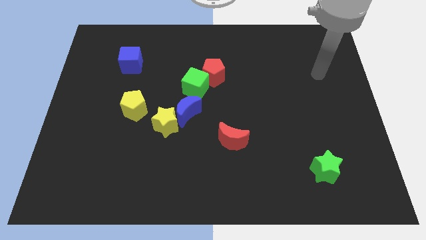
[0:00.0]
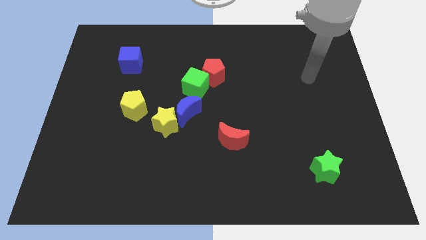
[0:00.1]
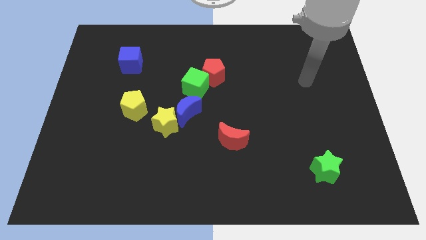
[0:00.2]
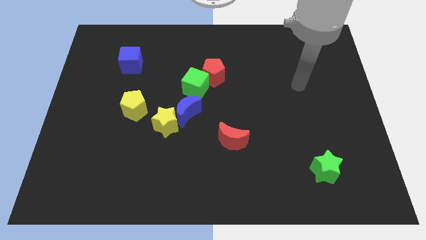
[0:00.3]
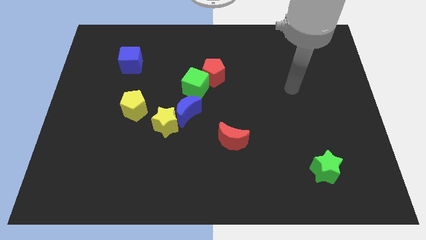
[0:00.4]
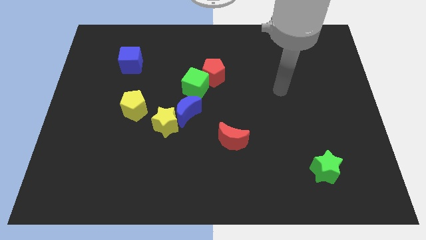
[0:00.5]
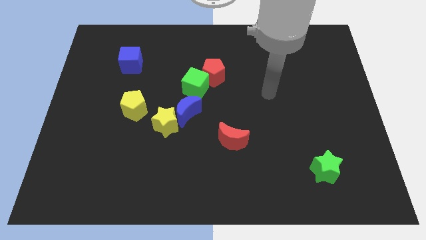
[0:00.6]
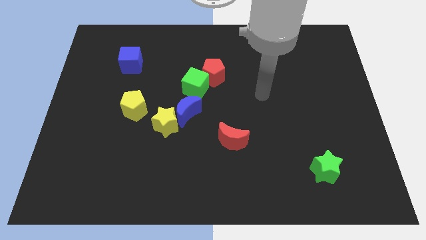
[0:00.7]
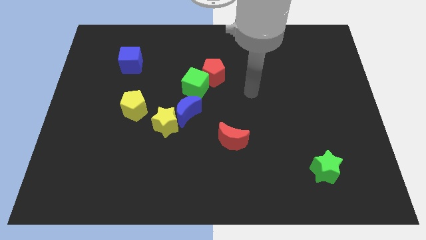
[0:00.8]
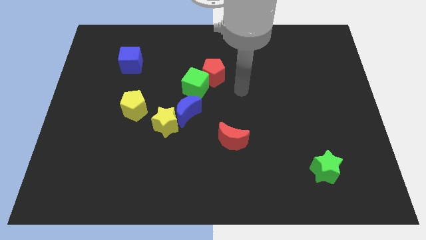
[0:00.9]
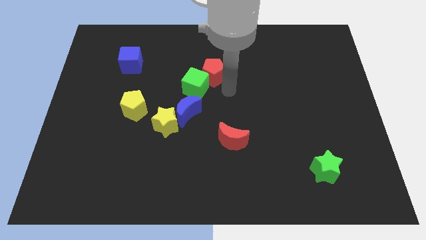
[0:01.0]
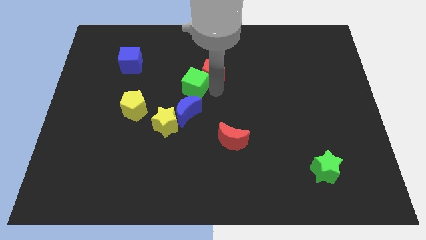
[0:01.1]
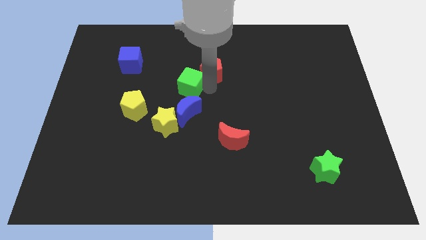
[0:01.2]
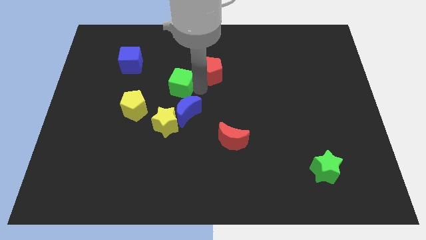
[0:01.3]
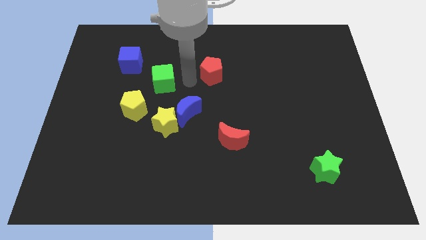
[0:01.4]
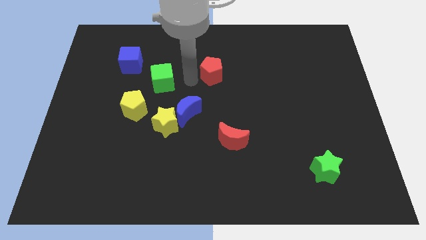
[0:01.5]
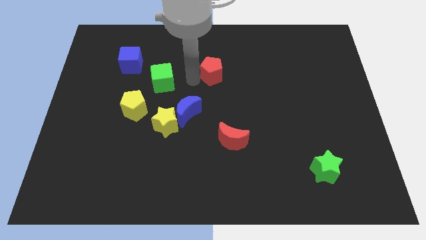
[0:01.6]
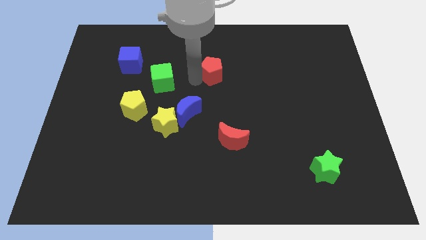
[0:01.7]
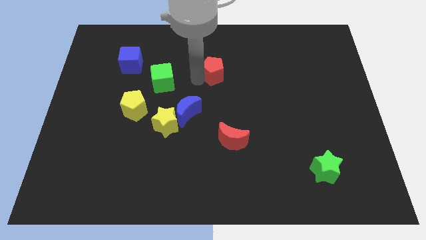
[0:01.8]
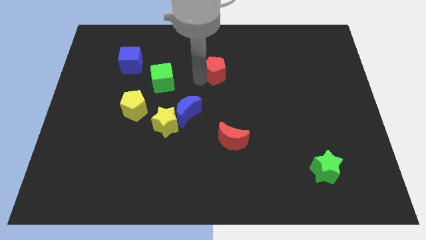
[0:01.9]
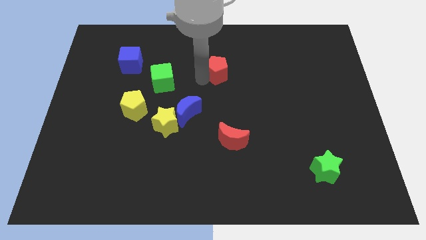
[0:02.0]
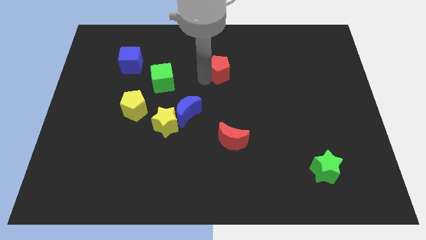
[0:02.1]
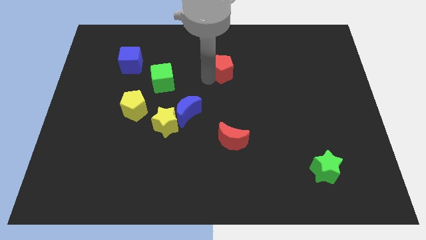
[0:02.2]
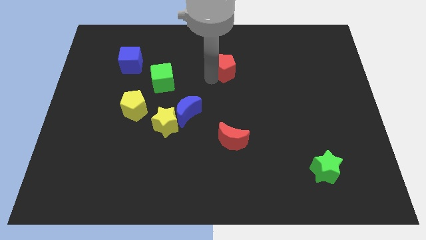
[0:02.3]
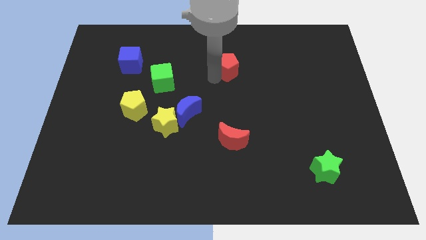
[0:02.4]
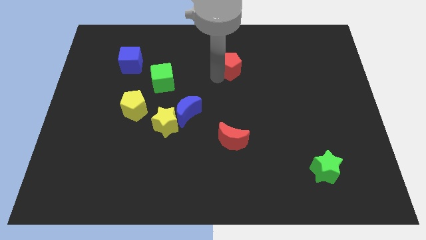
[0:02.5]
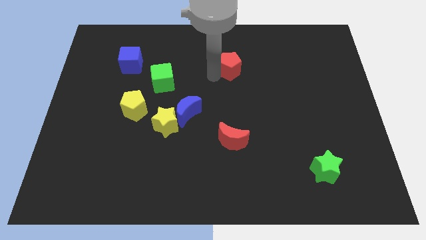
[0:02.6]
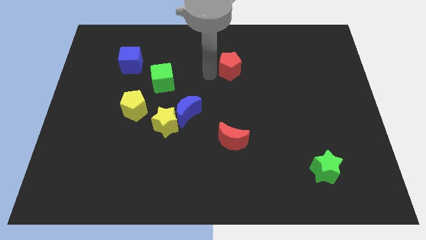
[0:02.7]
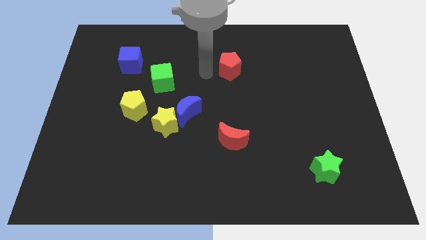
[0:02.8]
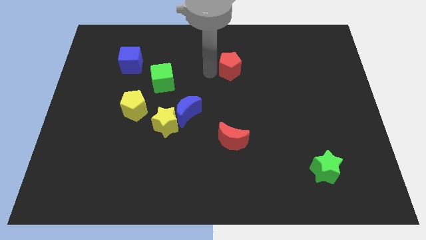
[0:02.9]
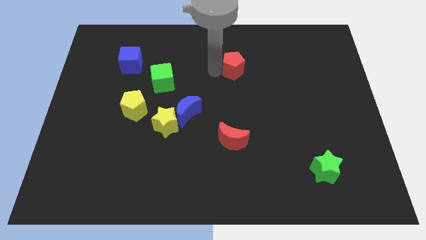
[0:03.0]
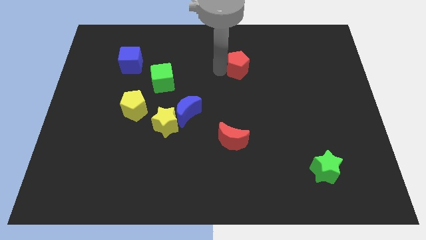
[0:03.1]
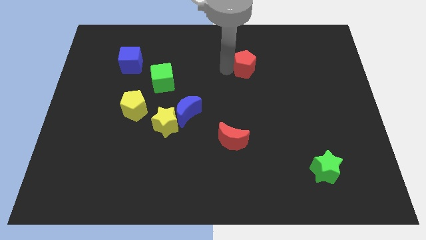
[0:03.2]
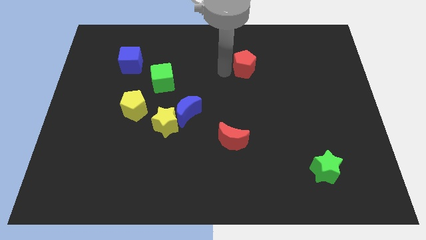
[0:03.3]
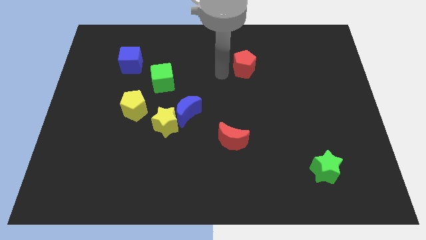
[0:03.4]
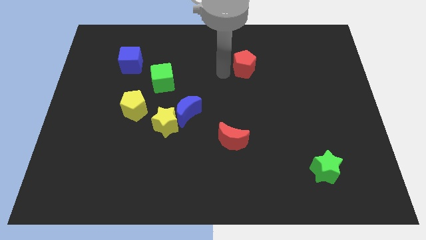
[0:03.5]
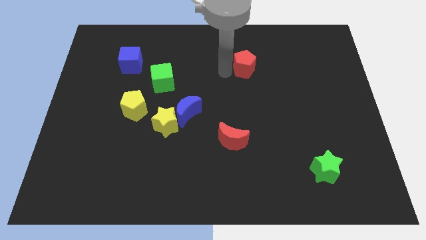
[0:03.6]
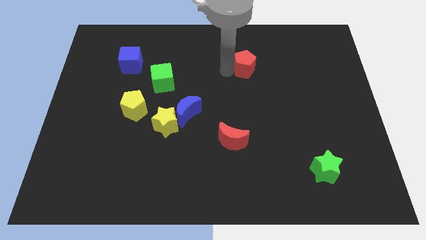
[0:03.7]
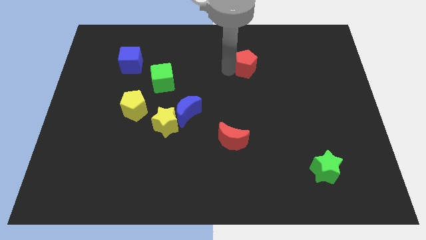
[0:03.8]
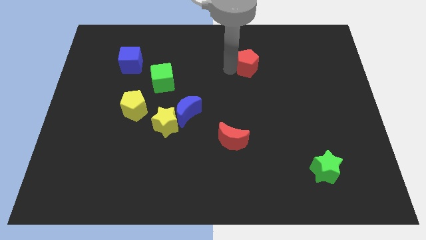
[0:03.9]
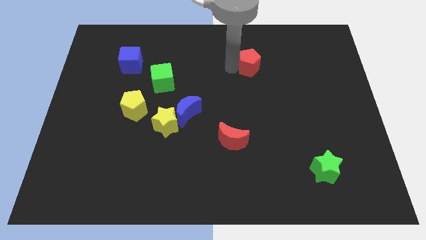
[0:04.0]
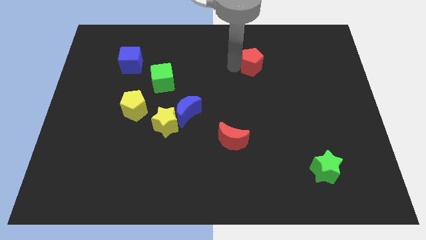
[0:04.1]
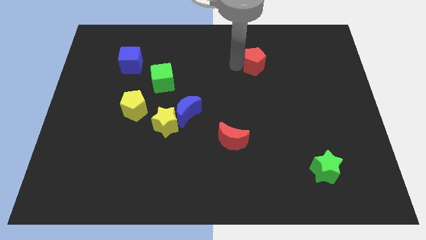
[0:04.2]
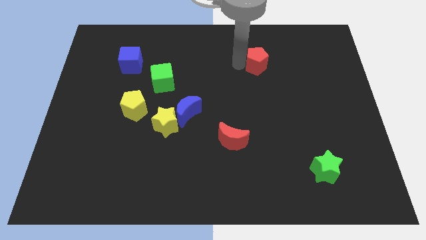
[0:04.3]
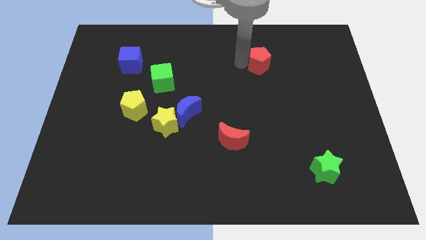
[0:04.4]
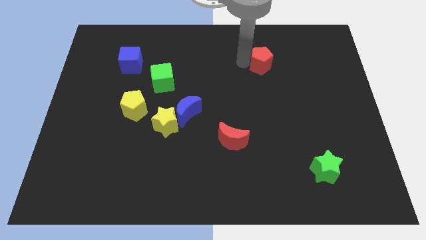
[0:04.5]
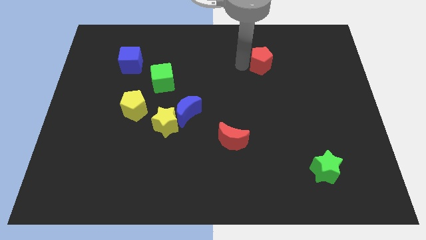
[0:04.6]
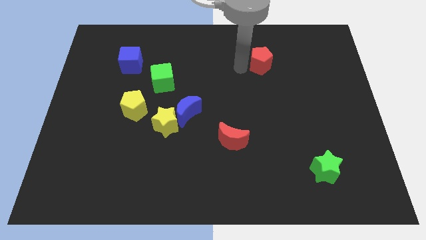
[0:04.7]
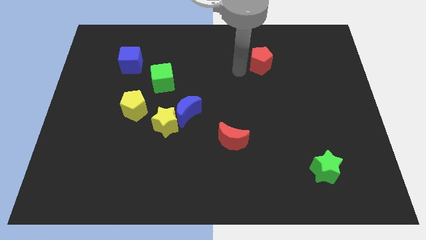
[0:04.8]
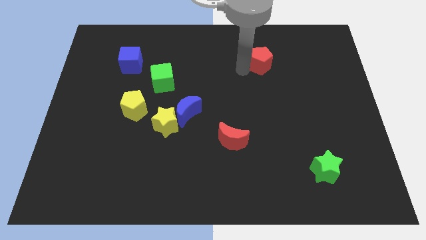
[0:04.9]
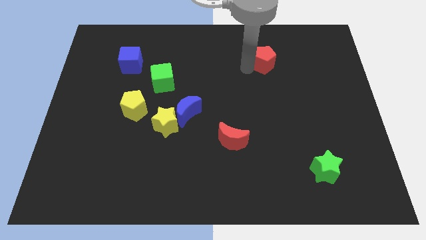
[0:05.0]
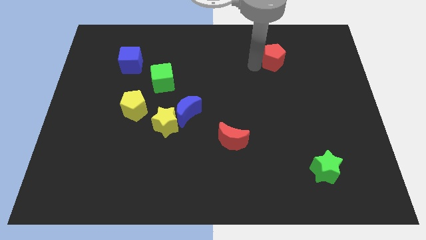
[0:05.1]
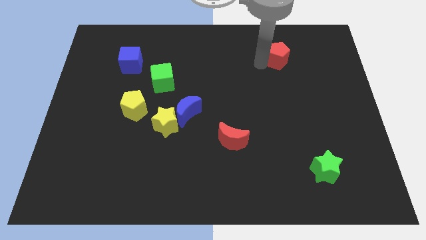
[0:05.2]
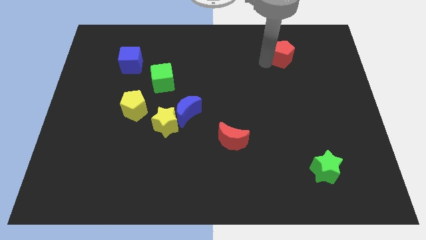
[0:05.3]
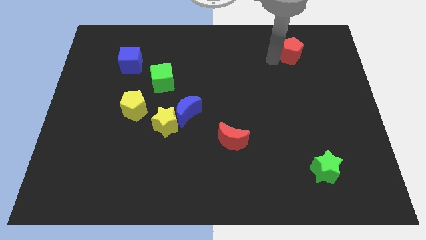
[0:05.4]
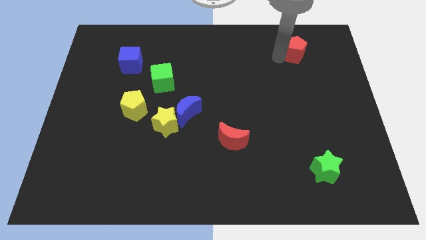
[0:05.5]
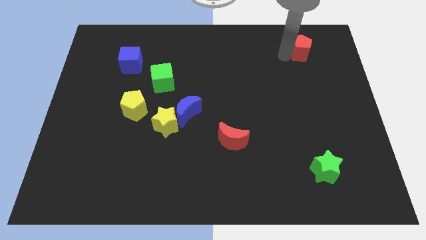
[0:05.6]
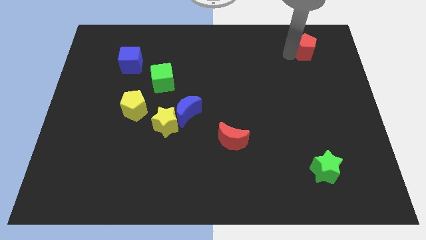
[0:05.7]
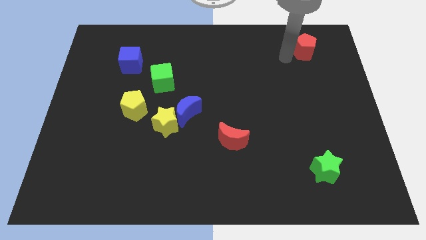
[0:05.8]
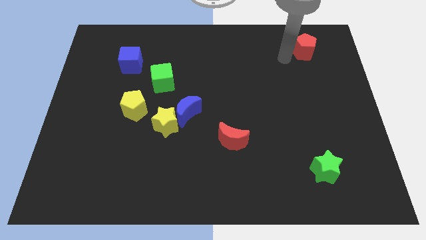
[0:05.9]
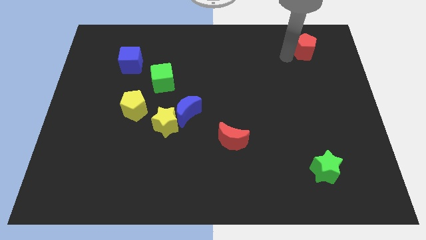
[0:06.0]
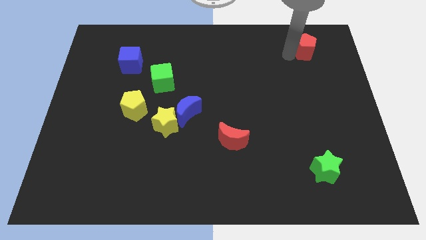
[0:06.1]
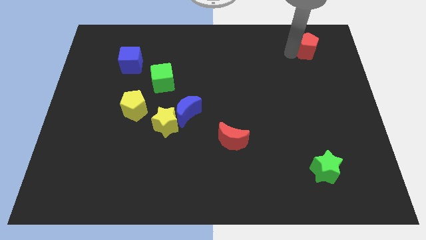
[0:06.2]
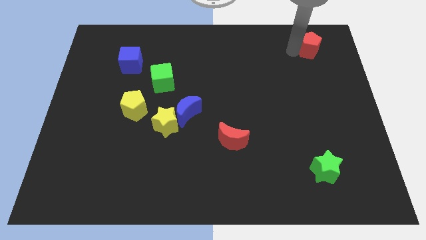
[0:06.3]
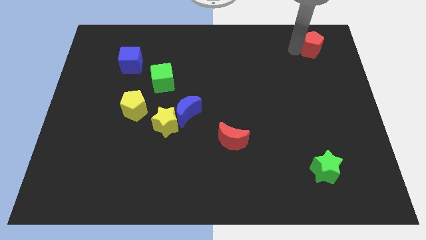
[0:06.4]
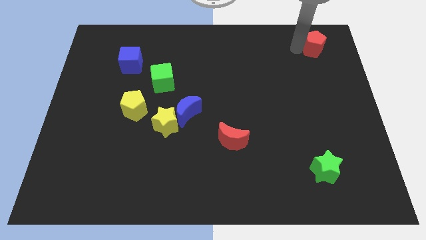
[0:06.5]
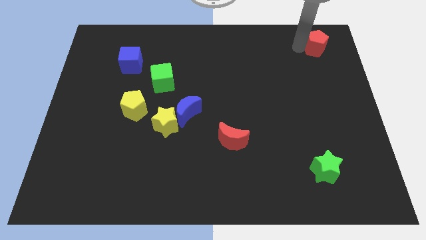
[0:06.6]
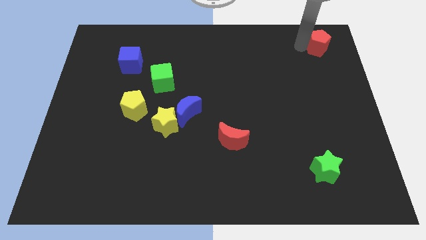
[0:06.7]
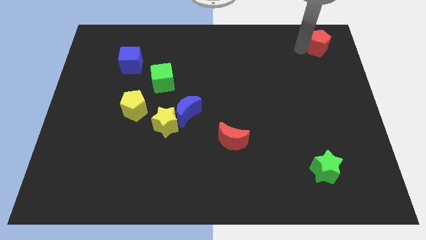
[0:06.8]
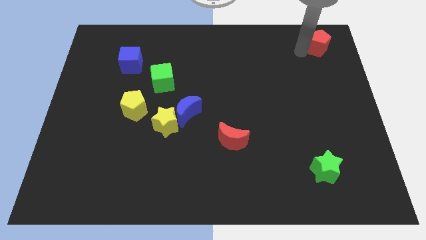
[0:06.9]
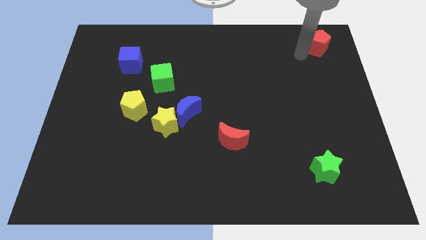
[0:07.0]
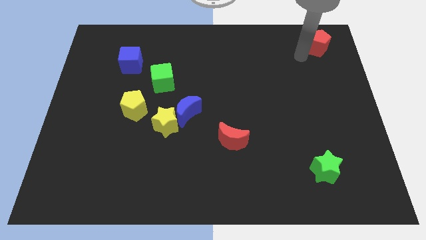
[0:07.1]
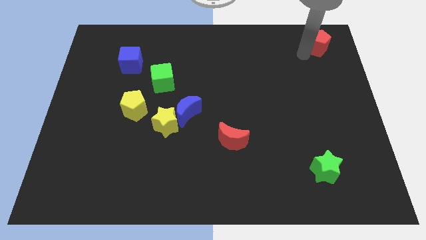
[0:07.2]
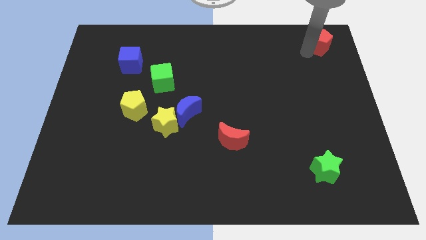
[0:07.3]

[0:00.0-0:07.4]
move the red pentagon to the upper right corner
